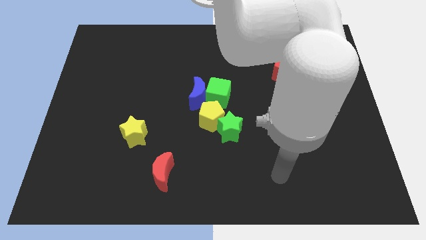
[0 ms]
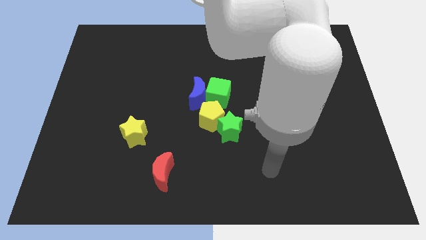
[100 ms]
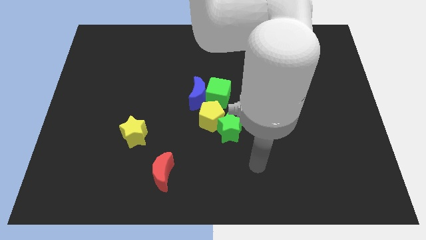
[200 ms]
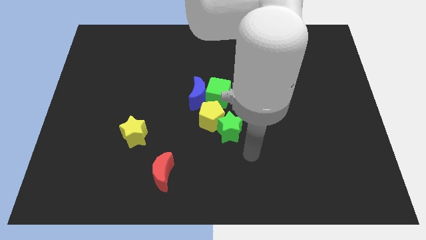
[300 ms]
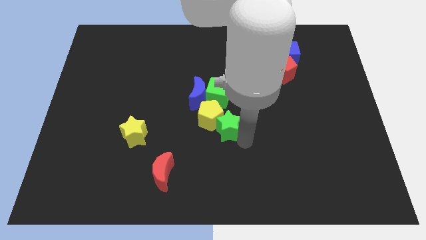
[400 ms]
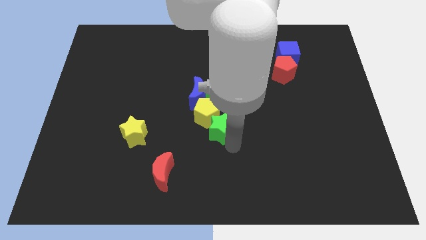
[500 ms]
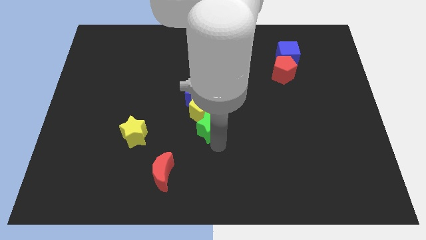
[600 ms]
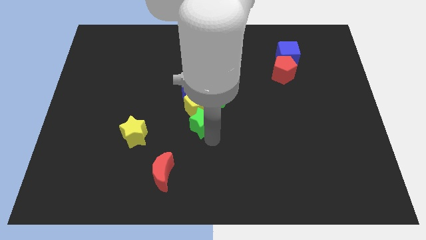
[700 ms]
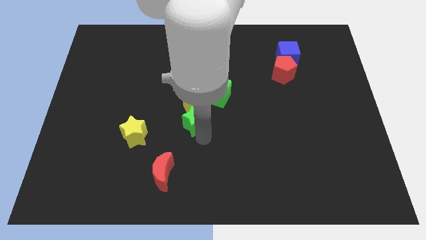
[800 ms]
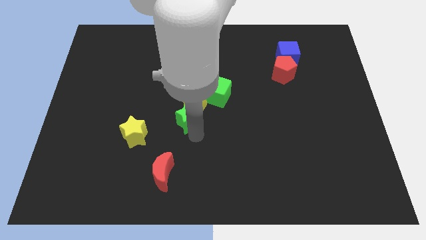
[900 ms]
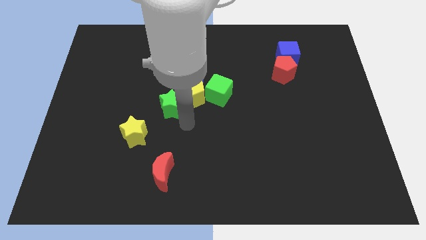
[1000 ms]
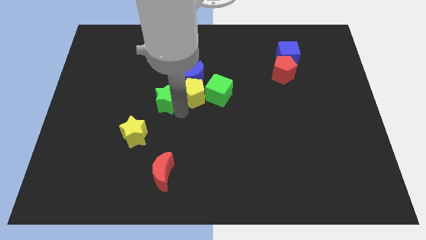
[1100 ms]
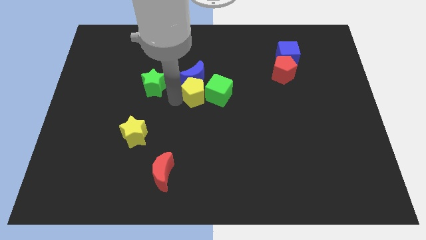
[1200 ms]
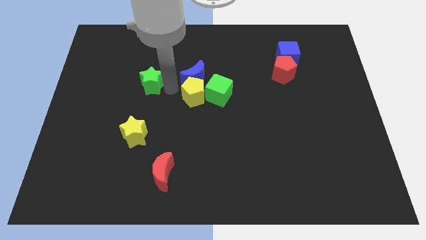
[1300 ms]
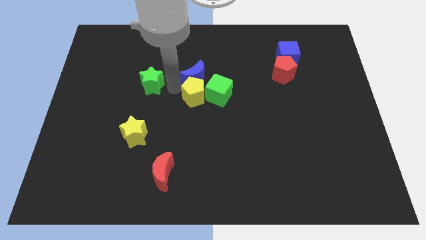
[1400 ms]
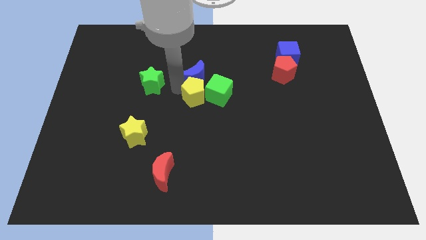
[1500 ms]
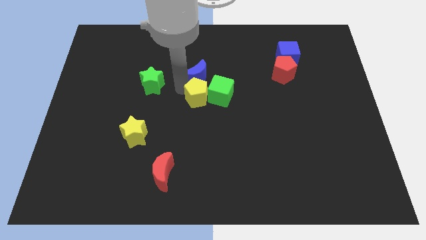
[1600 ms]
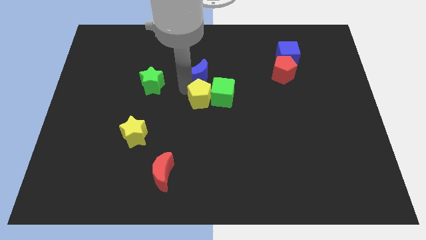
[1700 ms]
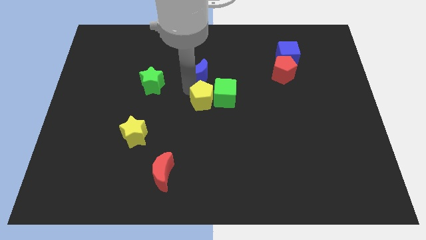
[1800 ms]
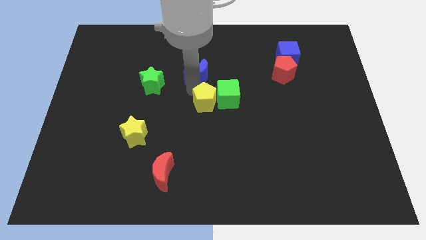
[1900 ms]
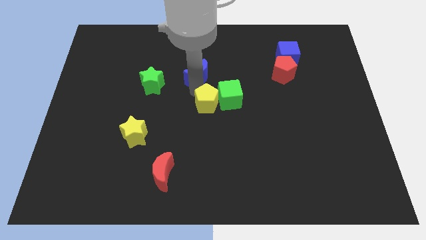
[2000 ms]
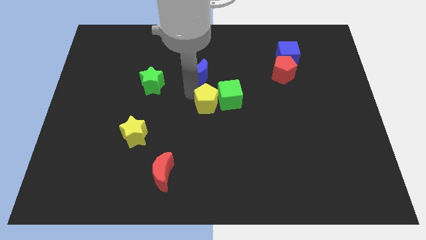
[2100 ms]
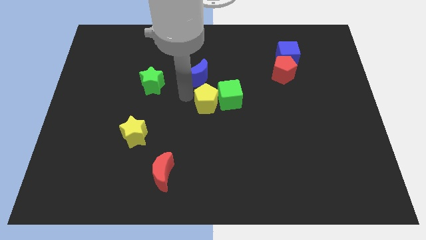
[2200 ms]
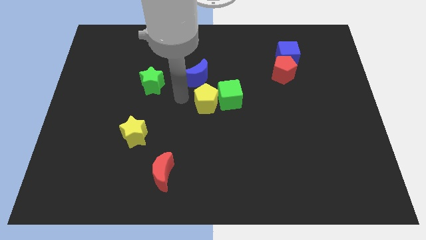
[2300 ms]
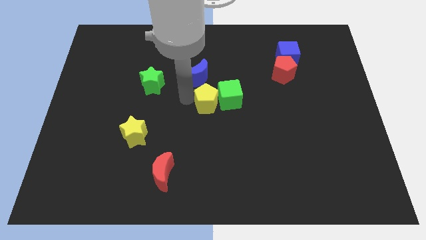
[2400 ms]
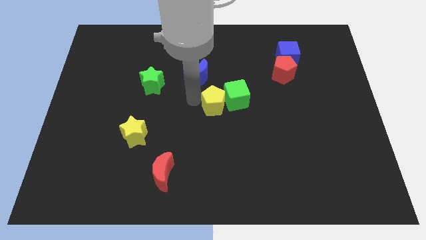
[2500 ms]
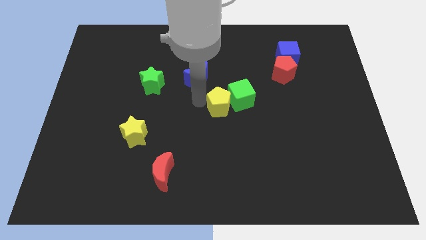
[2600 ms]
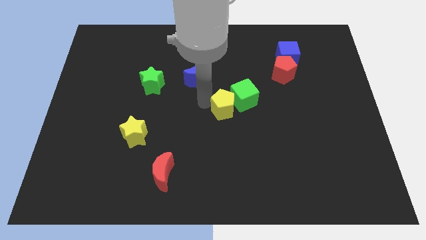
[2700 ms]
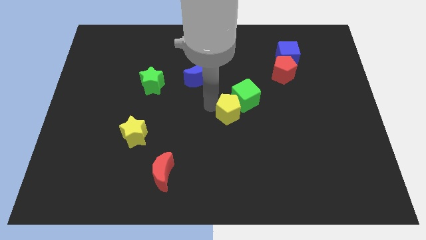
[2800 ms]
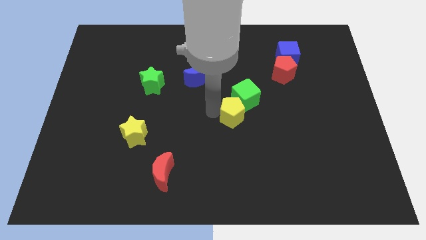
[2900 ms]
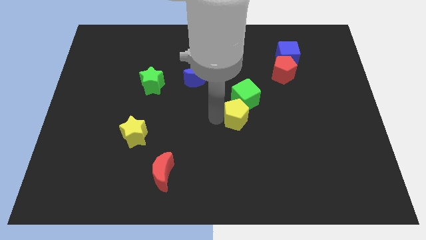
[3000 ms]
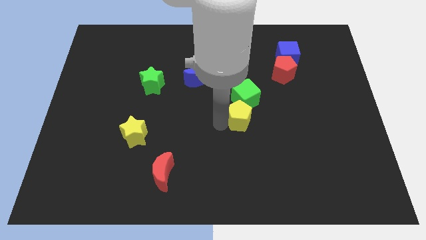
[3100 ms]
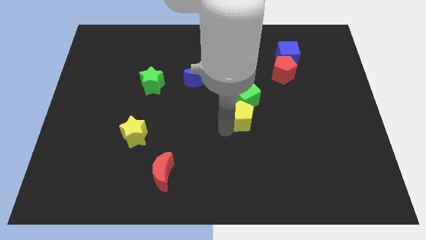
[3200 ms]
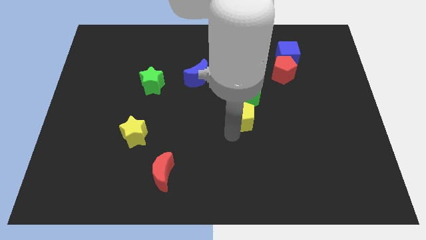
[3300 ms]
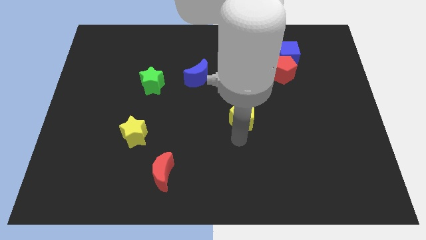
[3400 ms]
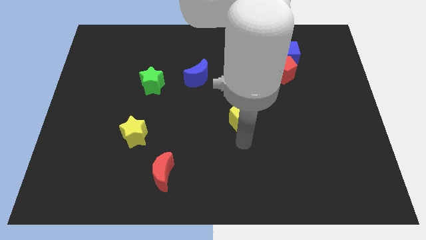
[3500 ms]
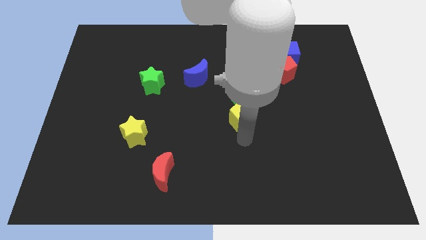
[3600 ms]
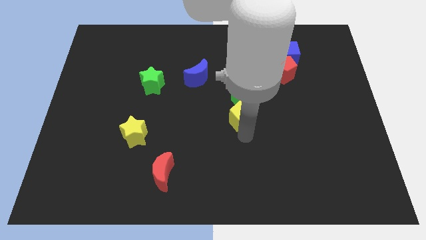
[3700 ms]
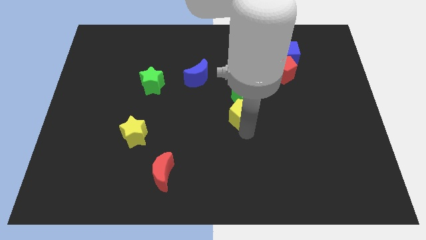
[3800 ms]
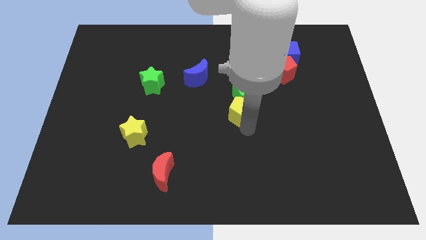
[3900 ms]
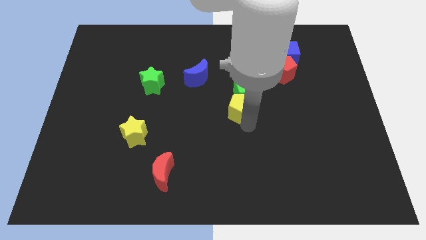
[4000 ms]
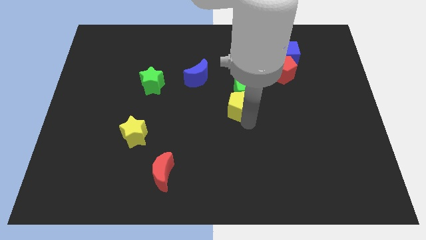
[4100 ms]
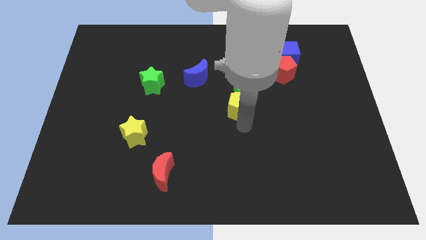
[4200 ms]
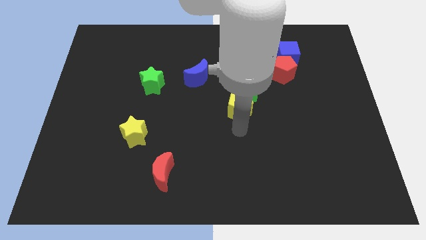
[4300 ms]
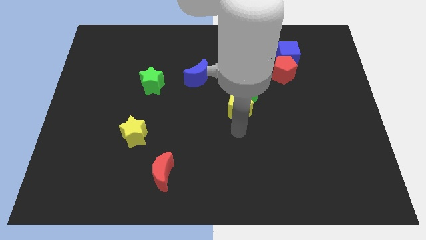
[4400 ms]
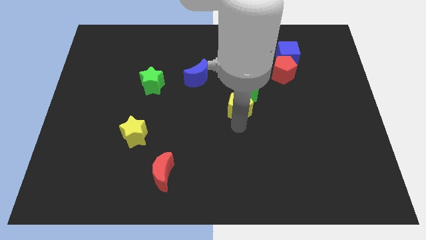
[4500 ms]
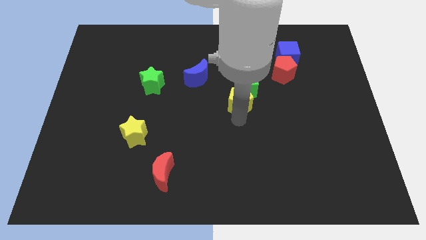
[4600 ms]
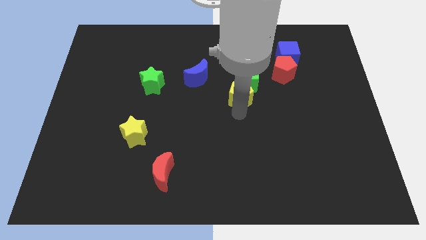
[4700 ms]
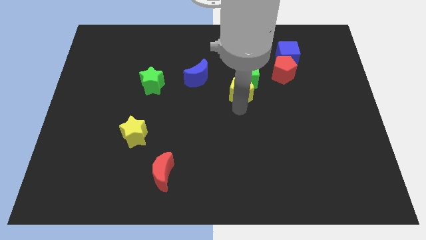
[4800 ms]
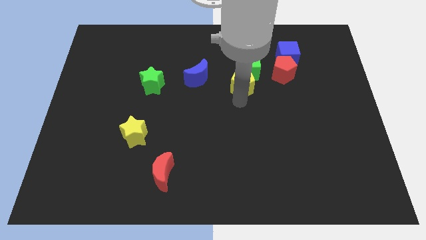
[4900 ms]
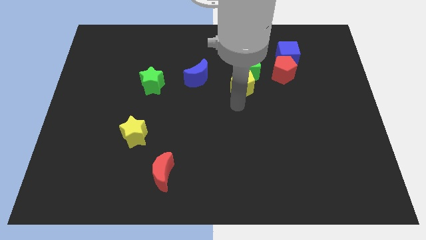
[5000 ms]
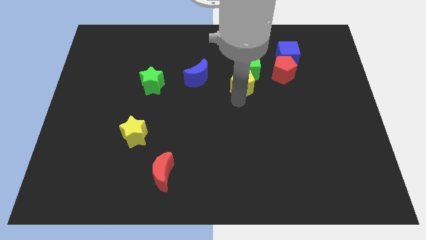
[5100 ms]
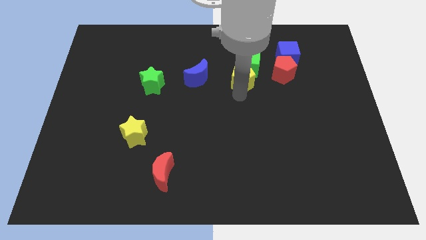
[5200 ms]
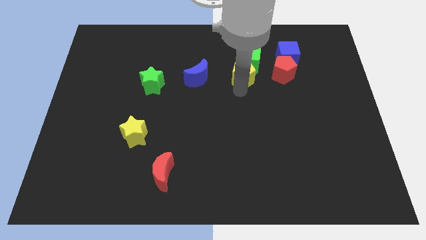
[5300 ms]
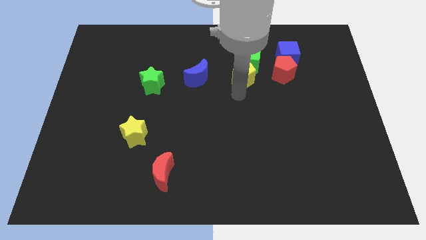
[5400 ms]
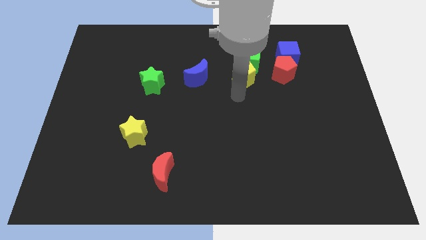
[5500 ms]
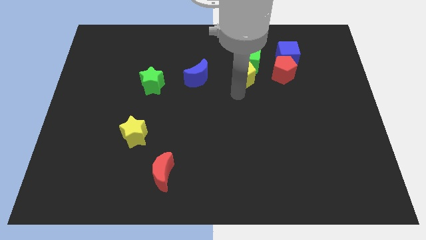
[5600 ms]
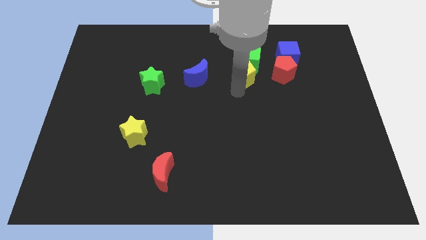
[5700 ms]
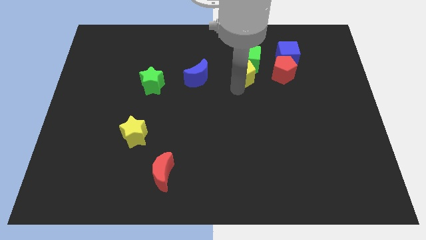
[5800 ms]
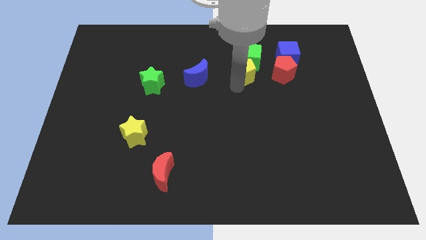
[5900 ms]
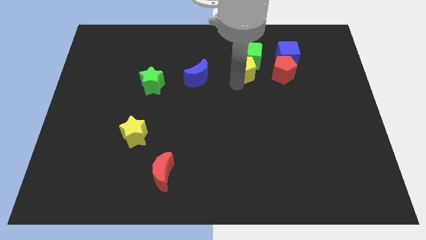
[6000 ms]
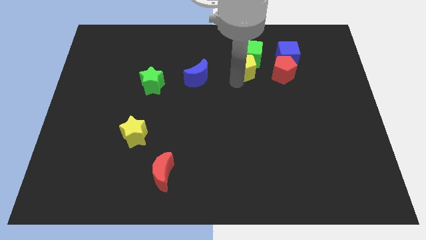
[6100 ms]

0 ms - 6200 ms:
put the yellow pentagon to the left side of the blue cube
